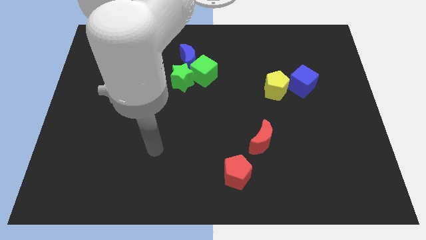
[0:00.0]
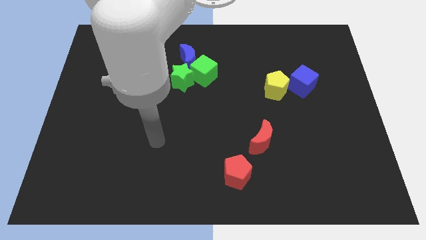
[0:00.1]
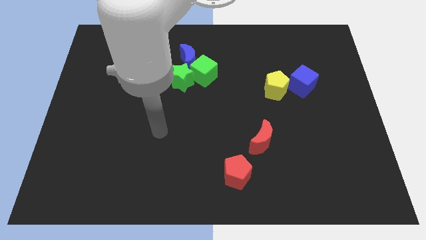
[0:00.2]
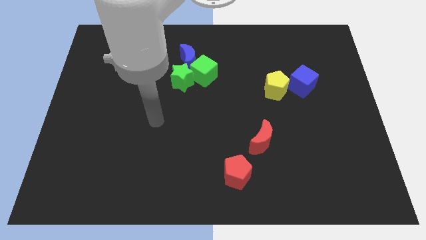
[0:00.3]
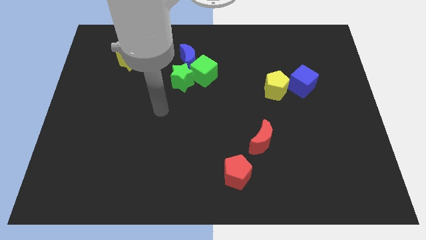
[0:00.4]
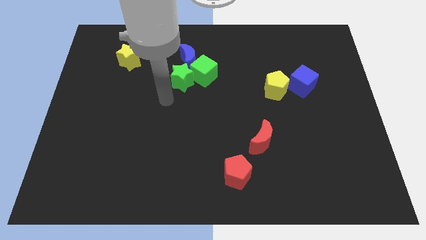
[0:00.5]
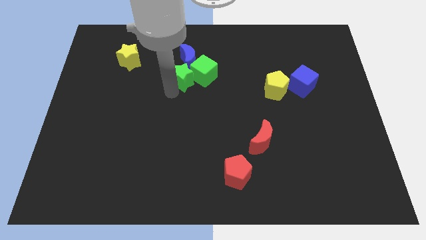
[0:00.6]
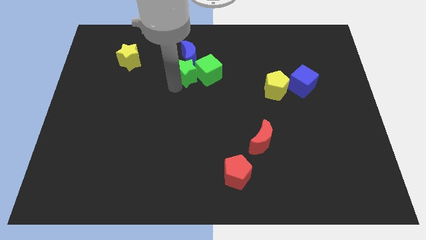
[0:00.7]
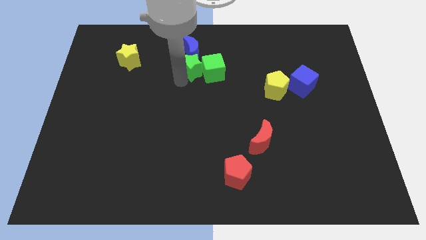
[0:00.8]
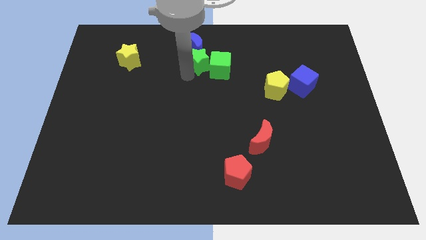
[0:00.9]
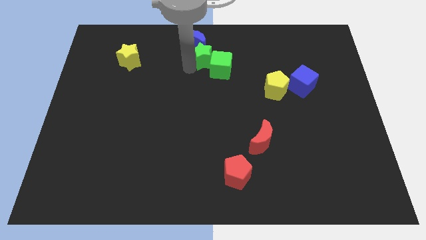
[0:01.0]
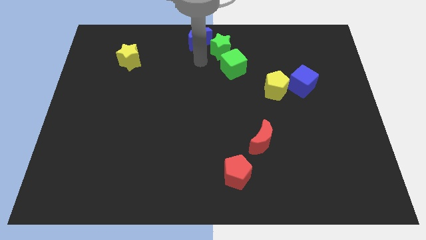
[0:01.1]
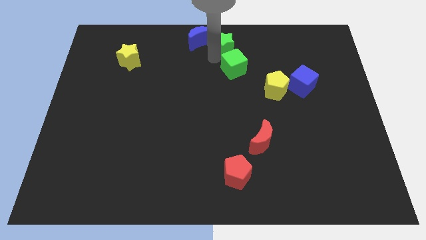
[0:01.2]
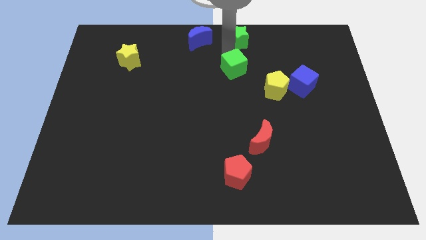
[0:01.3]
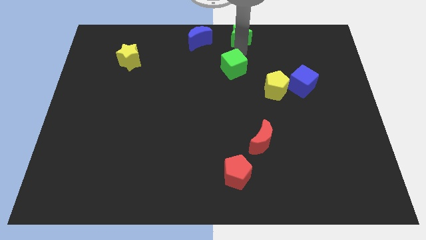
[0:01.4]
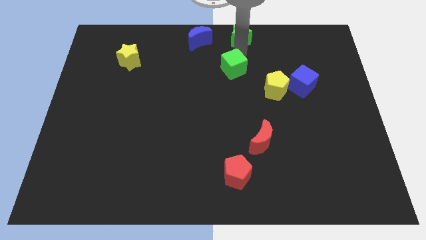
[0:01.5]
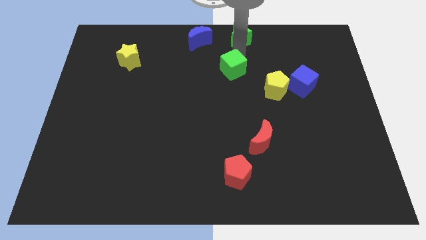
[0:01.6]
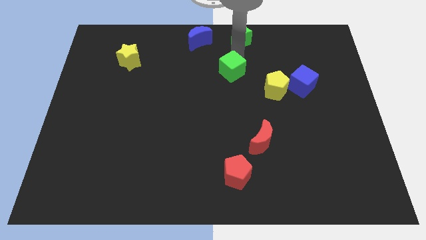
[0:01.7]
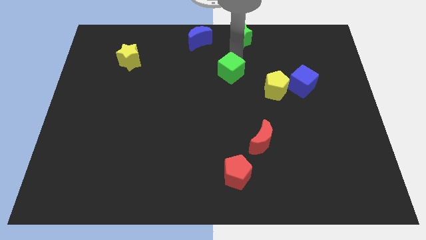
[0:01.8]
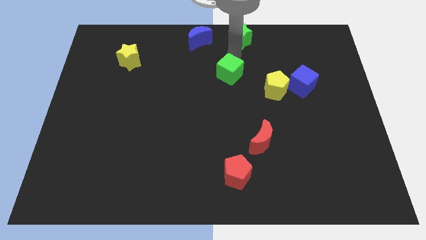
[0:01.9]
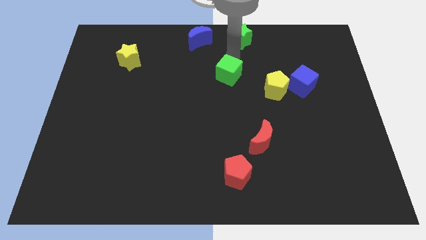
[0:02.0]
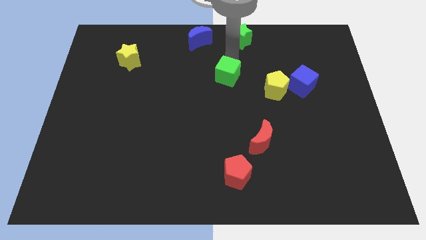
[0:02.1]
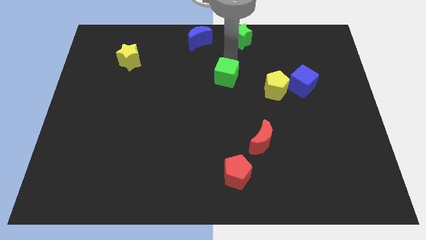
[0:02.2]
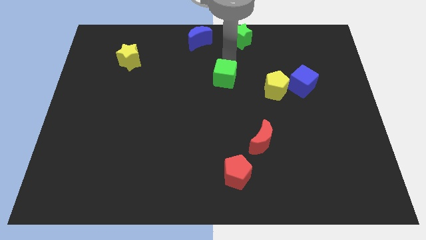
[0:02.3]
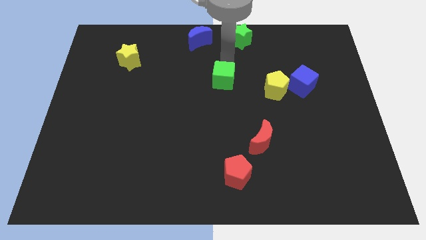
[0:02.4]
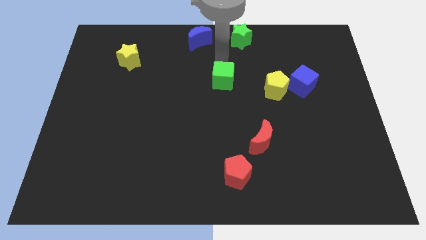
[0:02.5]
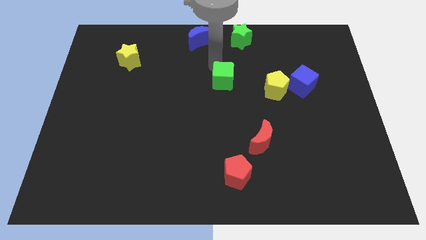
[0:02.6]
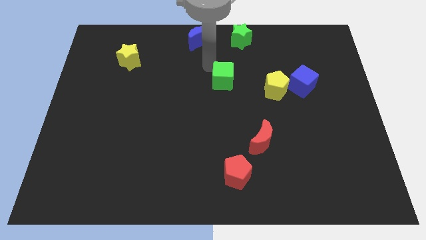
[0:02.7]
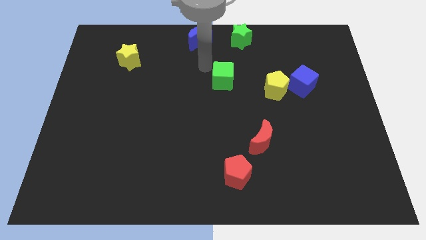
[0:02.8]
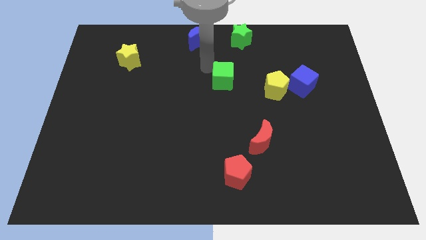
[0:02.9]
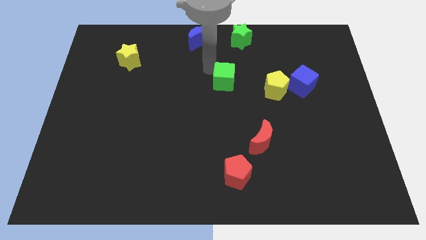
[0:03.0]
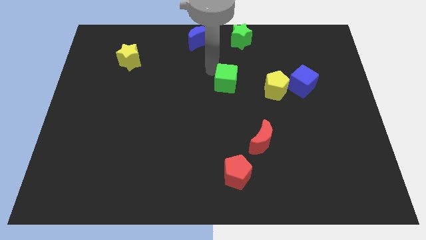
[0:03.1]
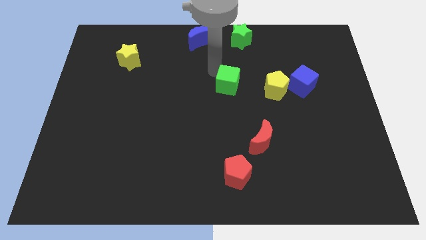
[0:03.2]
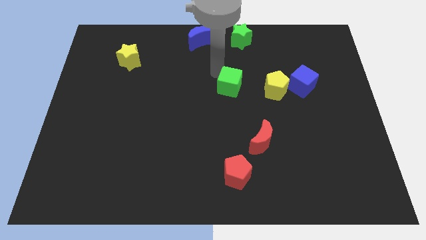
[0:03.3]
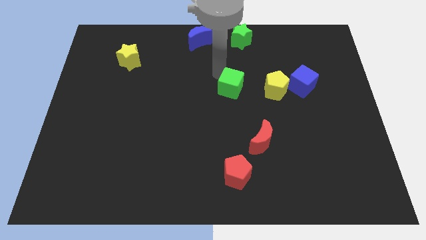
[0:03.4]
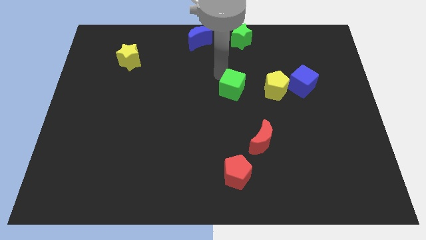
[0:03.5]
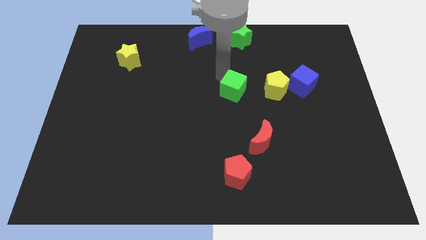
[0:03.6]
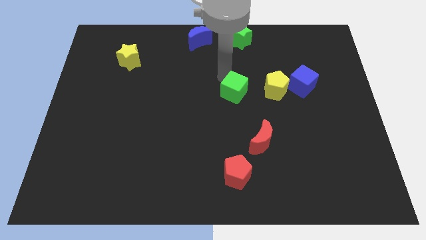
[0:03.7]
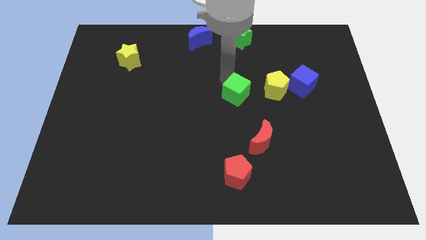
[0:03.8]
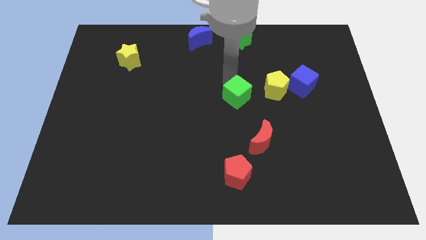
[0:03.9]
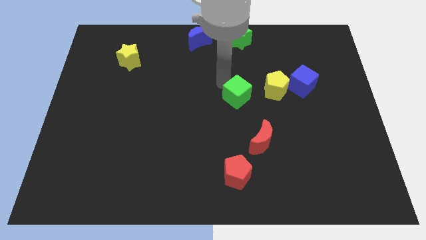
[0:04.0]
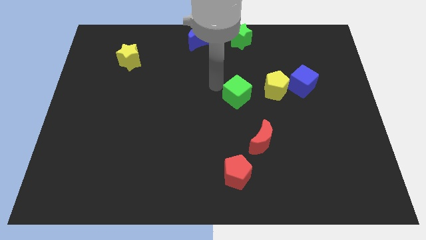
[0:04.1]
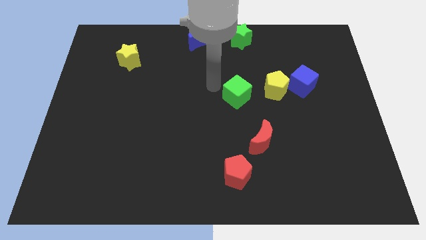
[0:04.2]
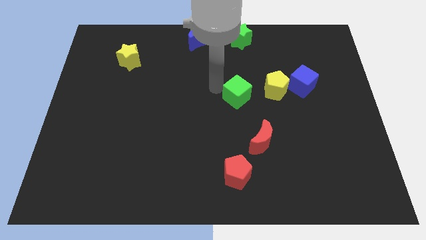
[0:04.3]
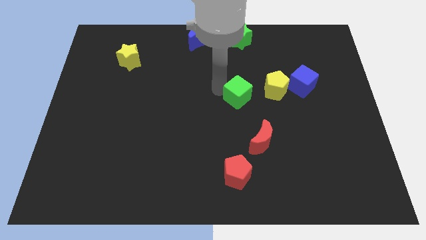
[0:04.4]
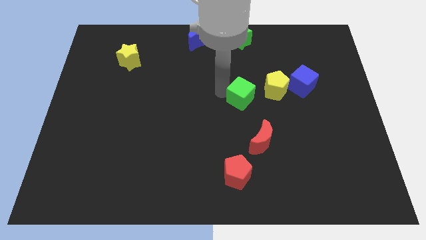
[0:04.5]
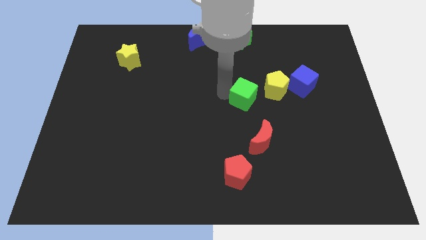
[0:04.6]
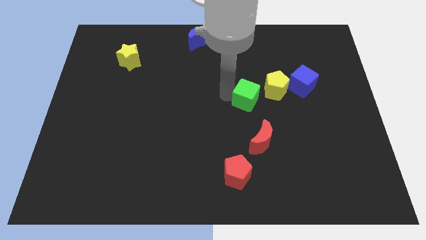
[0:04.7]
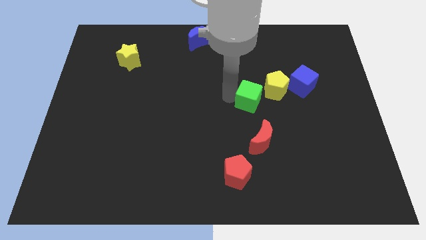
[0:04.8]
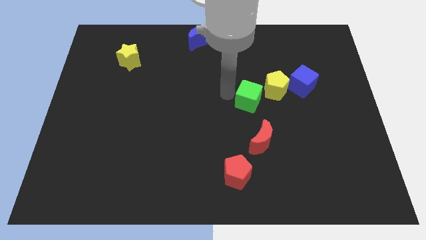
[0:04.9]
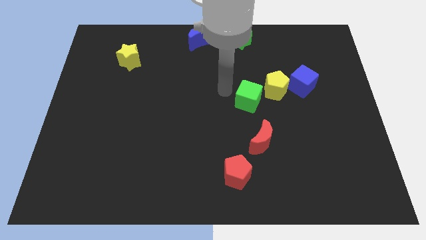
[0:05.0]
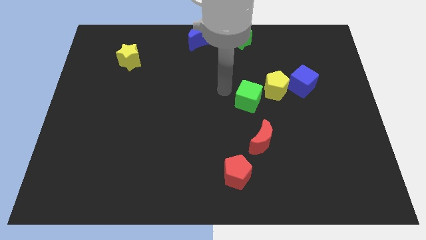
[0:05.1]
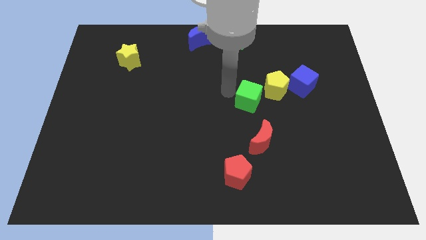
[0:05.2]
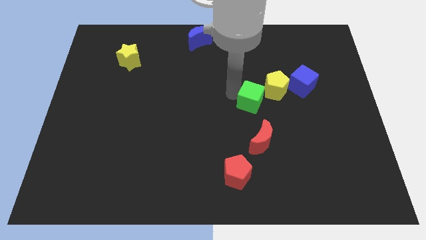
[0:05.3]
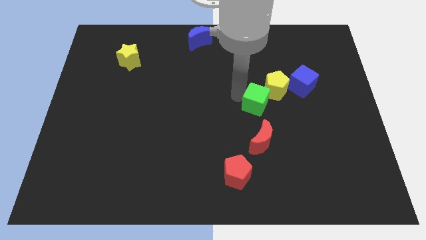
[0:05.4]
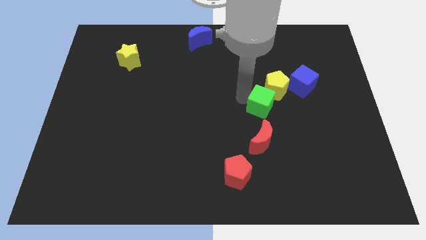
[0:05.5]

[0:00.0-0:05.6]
slide the green cube below the yellow pentagon

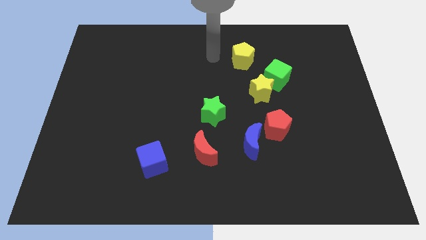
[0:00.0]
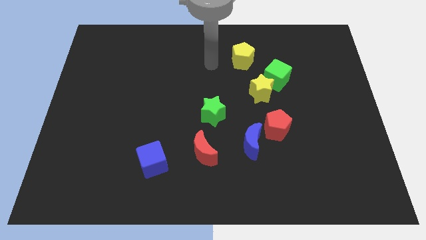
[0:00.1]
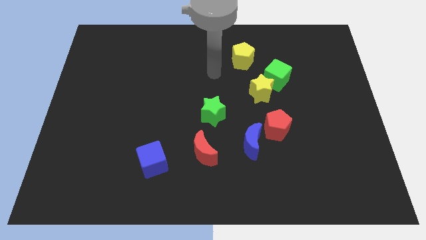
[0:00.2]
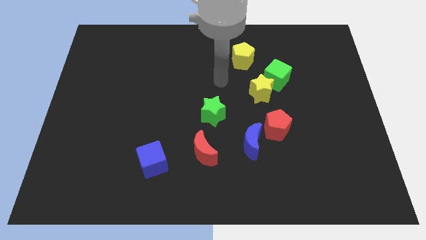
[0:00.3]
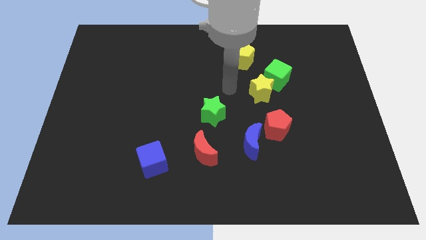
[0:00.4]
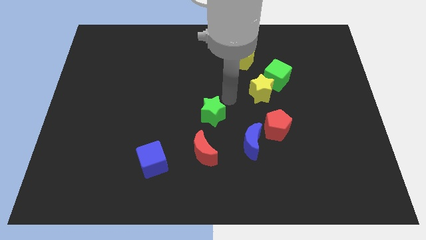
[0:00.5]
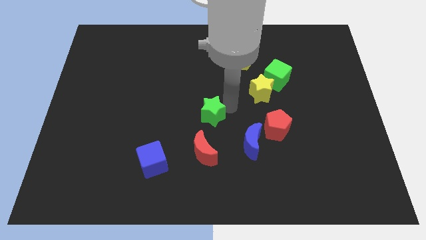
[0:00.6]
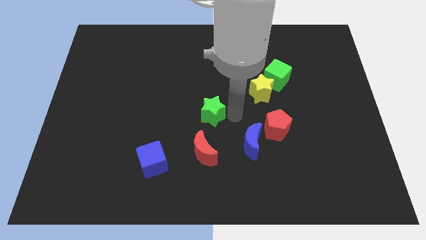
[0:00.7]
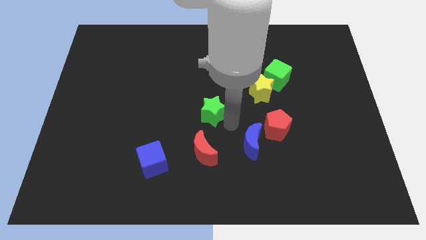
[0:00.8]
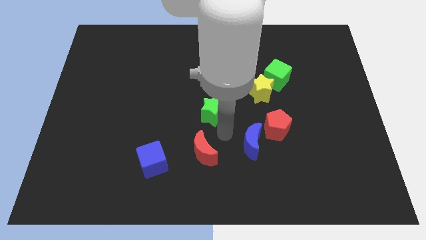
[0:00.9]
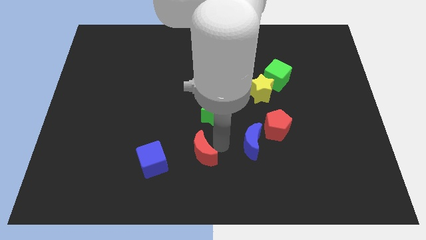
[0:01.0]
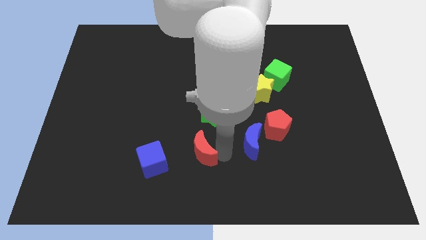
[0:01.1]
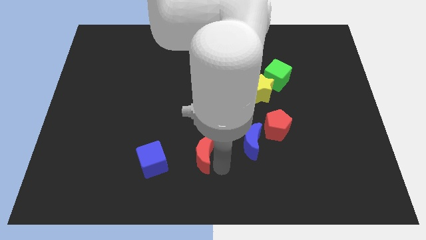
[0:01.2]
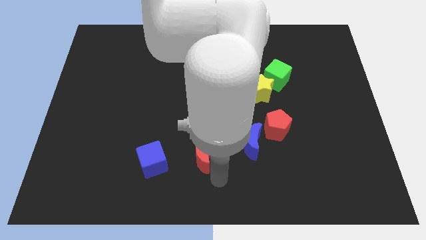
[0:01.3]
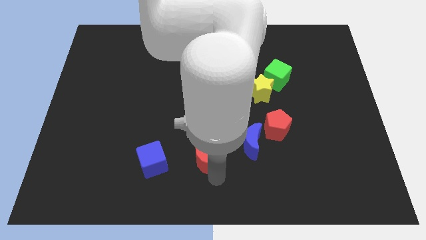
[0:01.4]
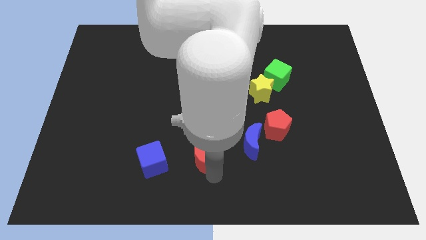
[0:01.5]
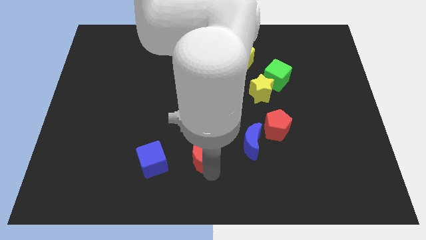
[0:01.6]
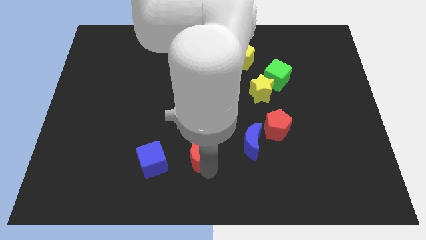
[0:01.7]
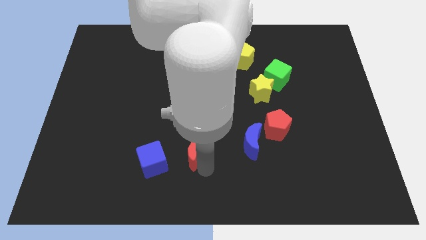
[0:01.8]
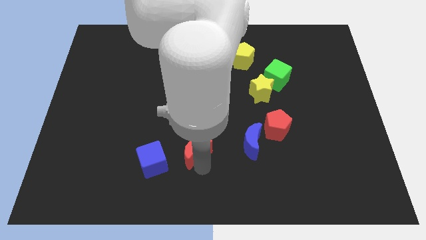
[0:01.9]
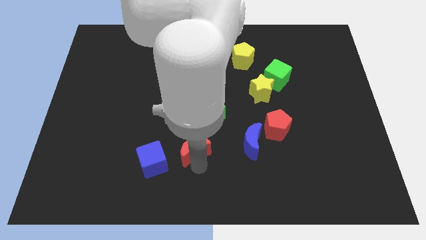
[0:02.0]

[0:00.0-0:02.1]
push the red moon to the bottom left side of the green star
